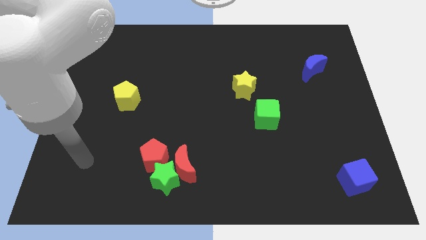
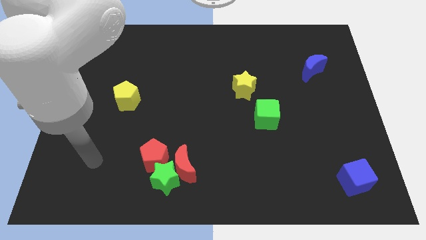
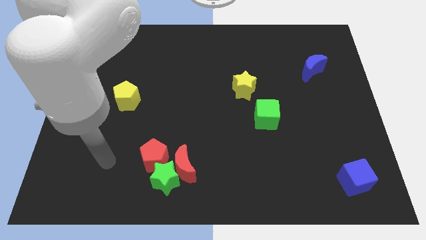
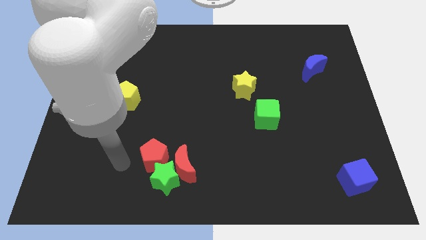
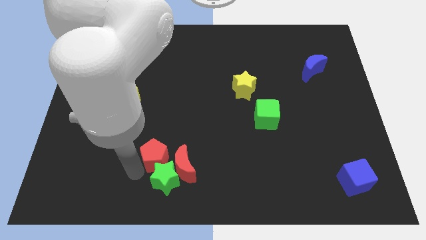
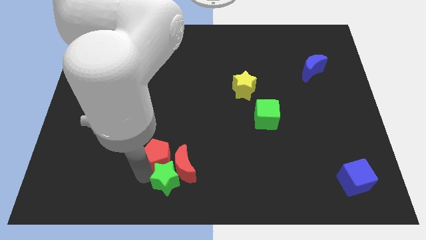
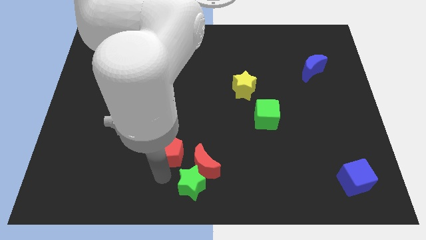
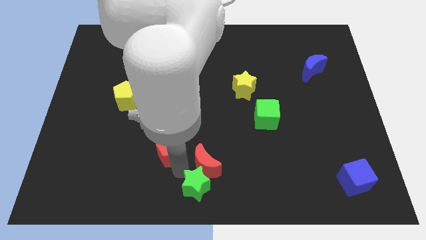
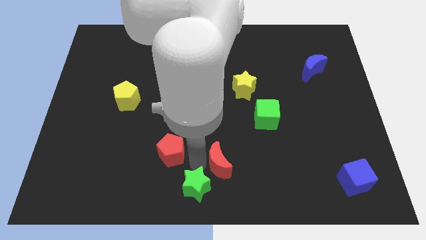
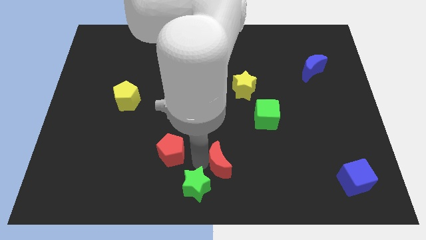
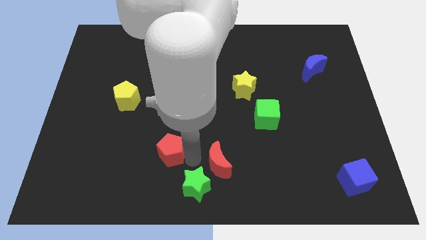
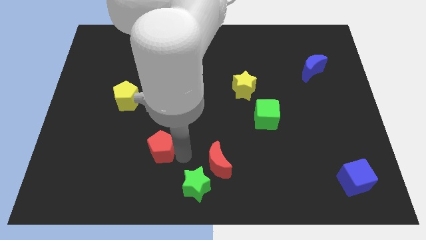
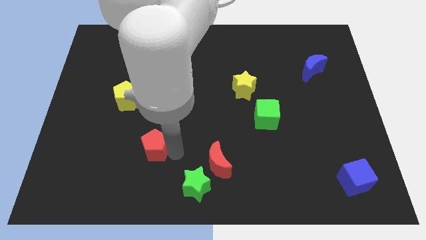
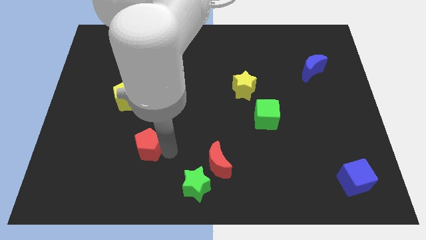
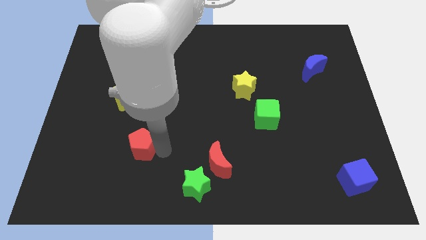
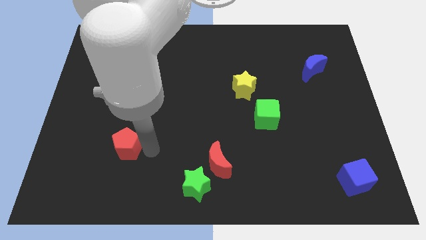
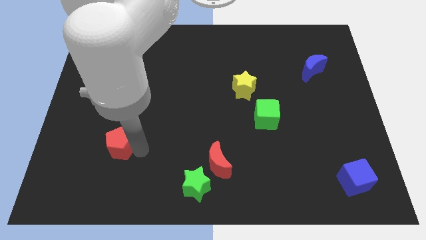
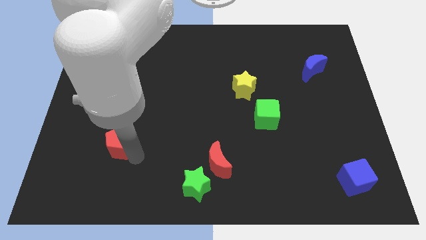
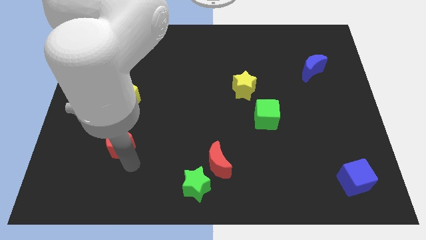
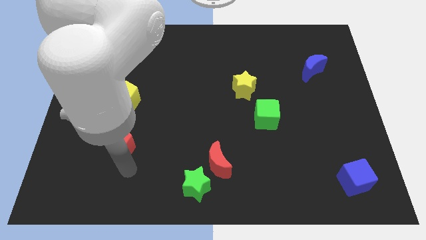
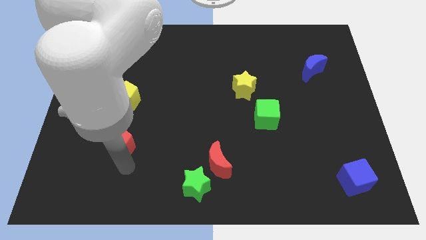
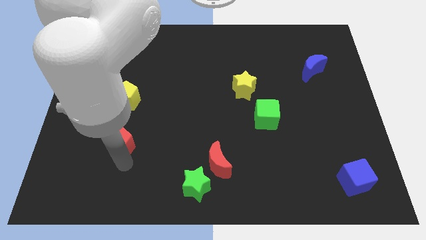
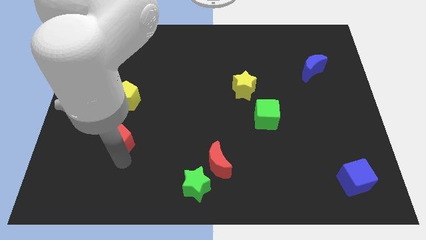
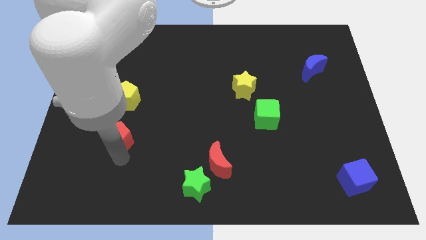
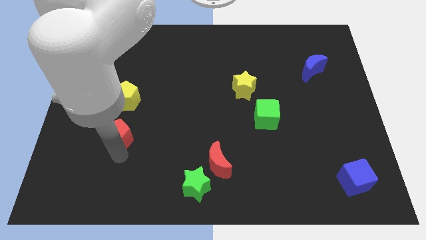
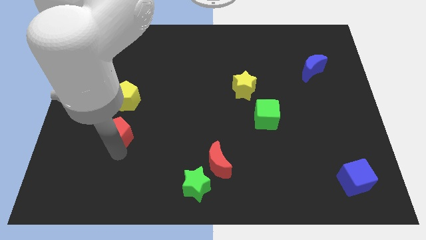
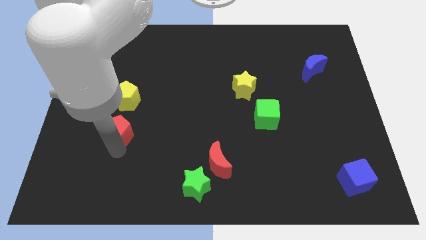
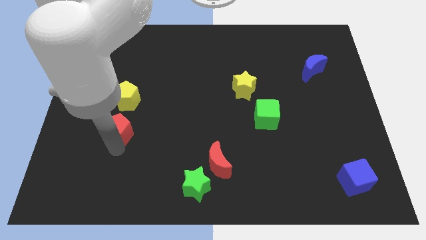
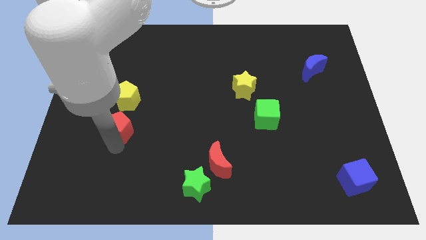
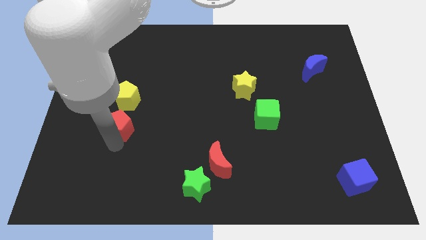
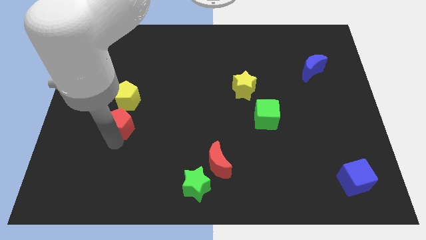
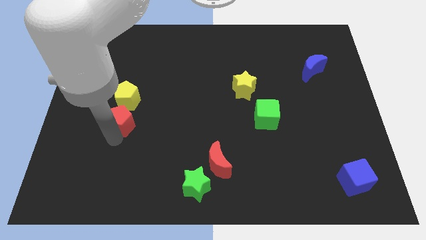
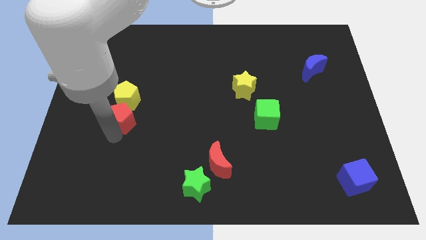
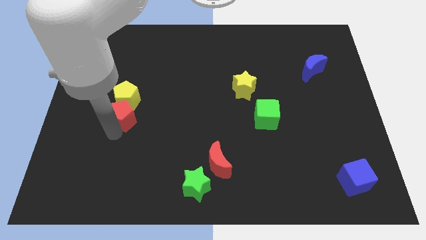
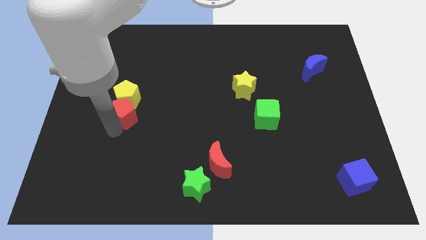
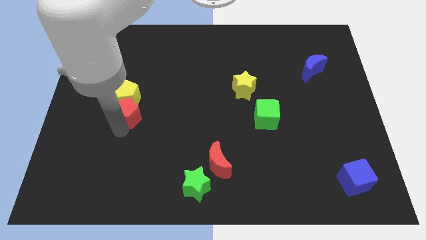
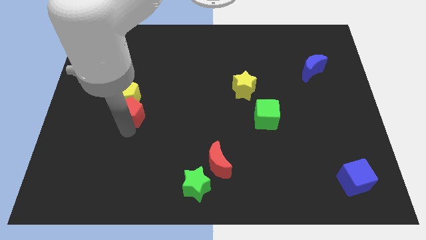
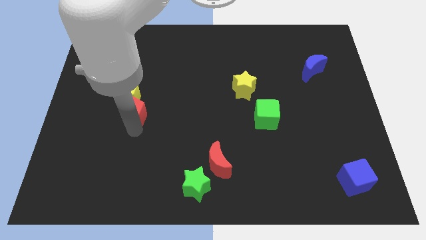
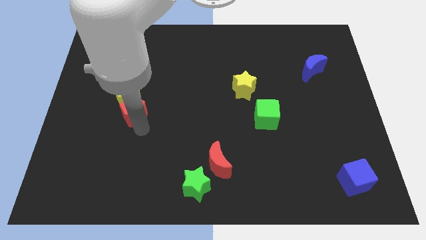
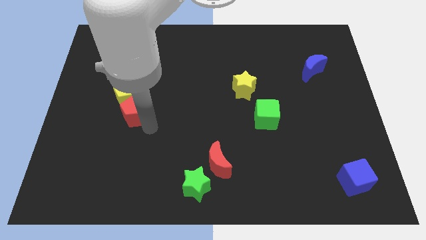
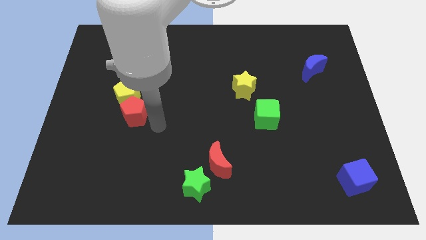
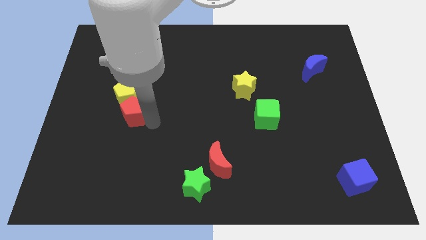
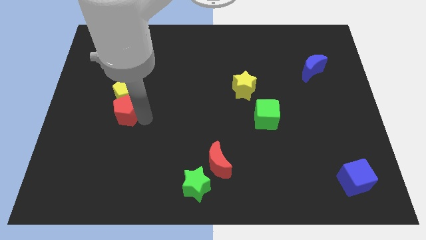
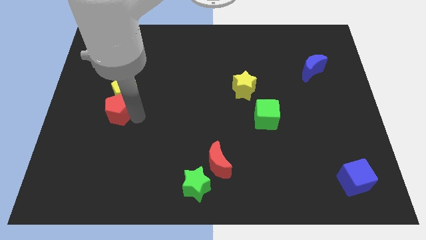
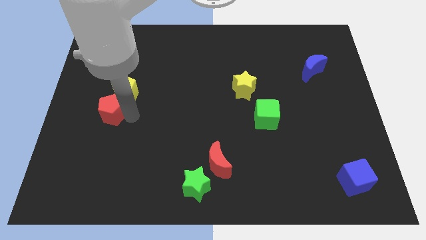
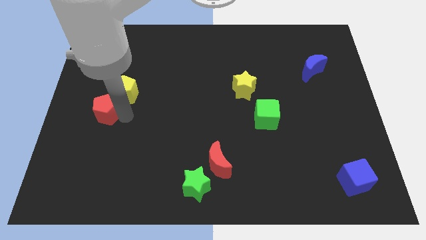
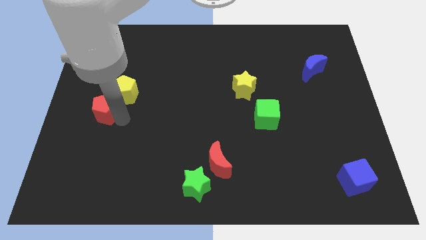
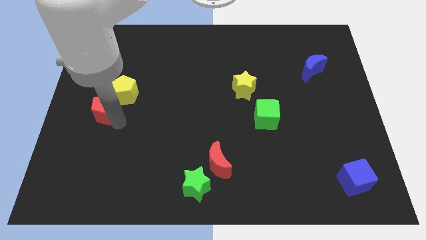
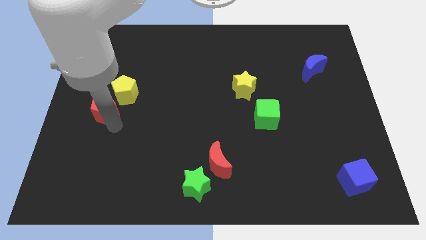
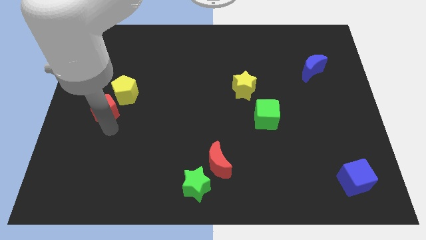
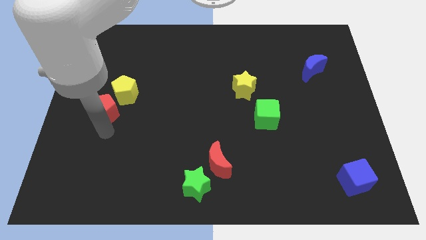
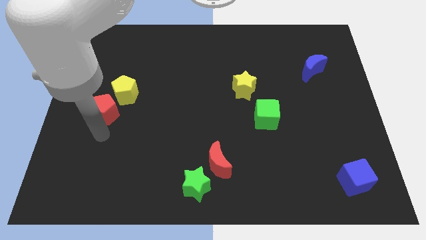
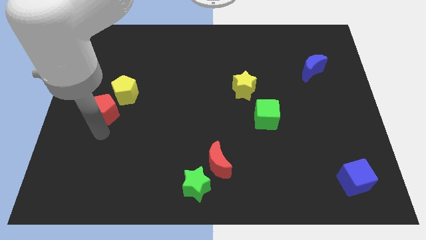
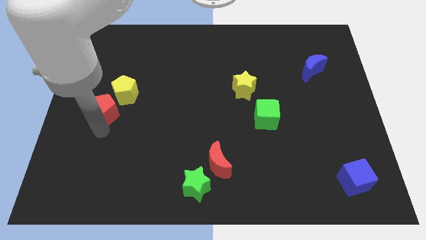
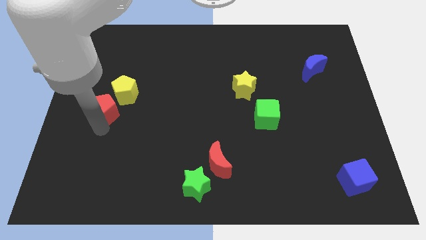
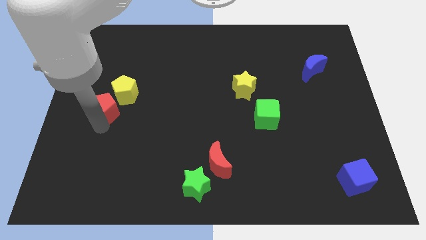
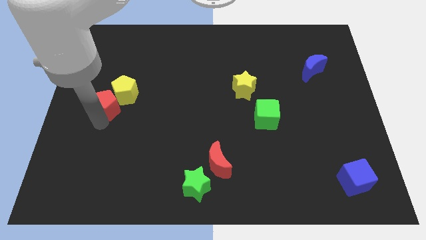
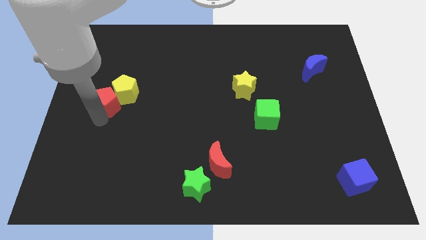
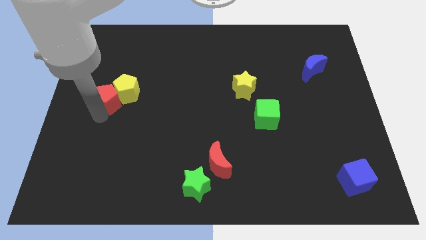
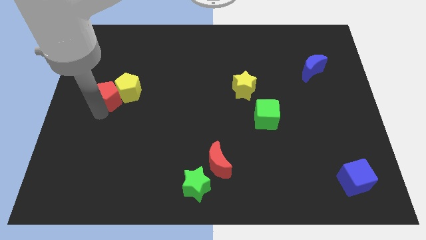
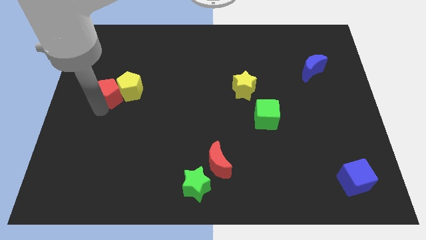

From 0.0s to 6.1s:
push the red pentagon to the top left side of the yellow pentagon
